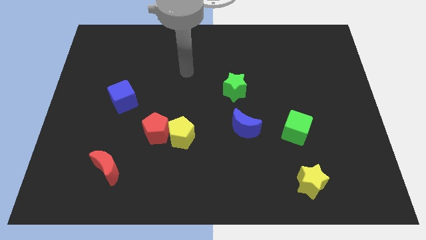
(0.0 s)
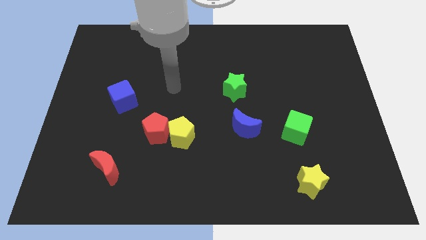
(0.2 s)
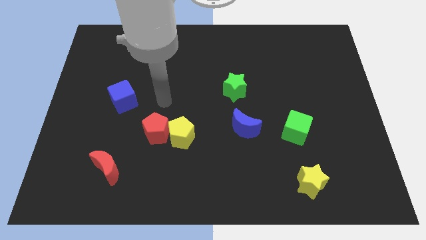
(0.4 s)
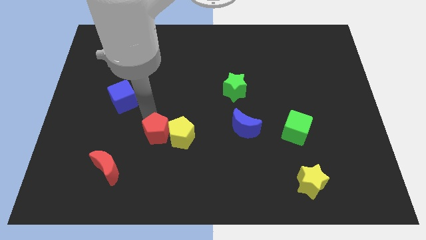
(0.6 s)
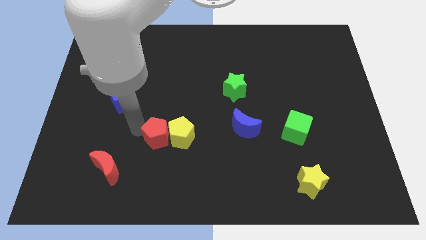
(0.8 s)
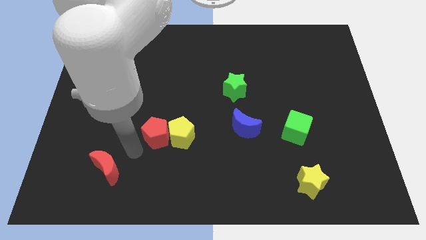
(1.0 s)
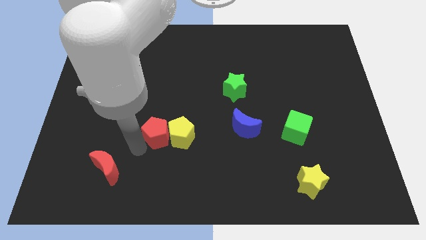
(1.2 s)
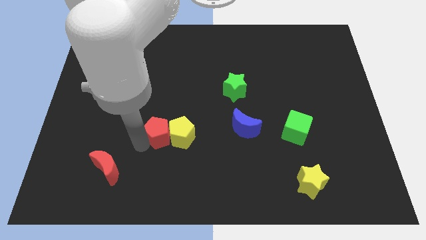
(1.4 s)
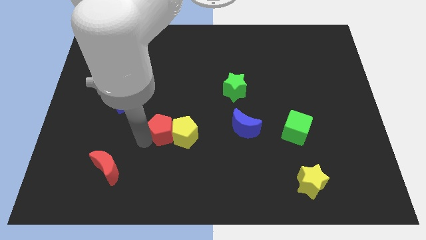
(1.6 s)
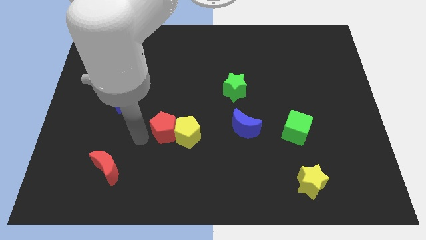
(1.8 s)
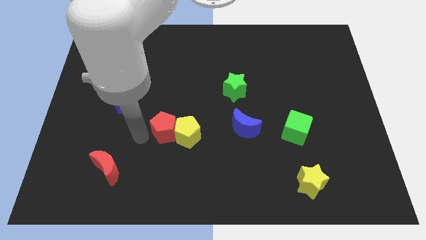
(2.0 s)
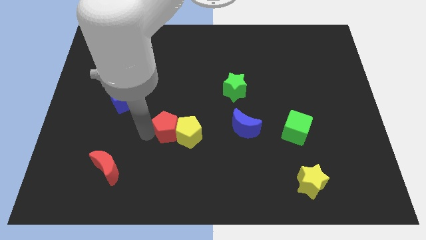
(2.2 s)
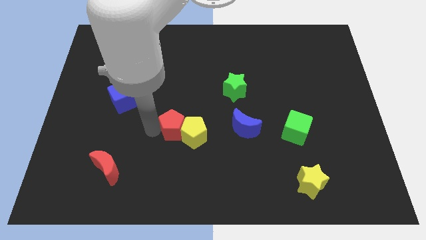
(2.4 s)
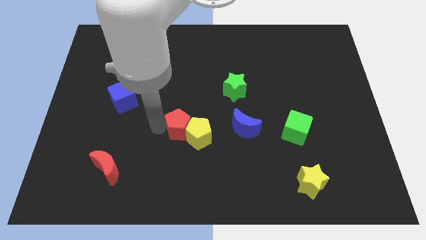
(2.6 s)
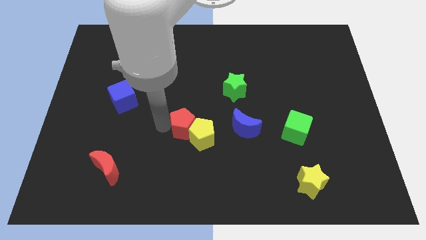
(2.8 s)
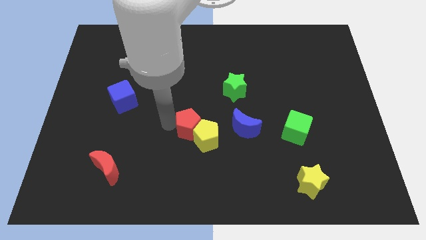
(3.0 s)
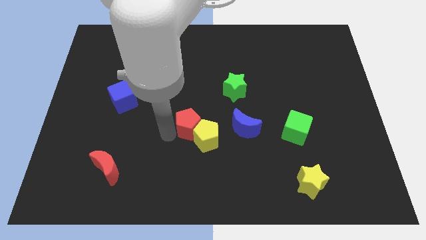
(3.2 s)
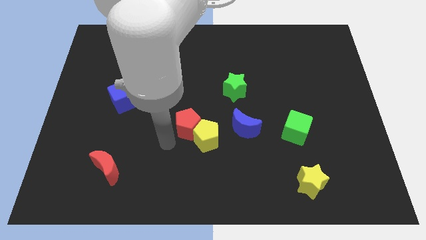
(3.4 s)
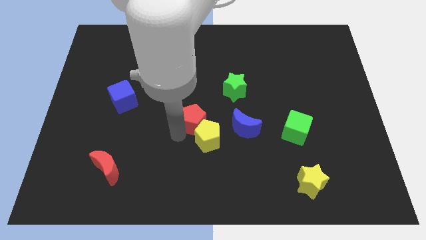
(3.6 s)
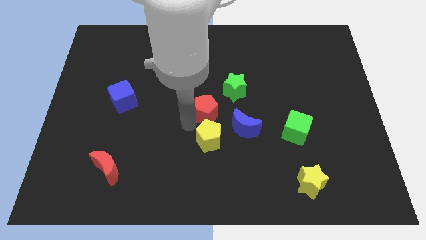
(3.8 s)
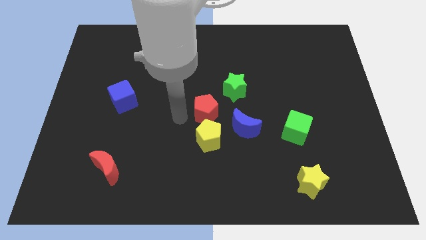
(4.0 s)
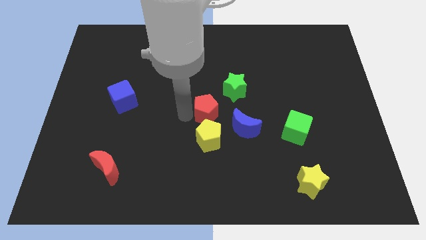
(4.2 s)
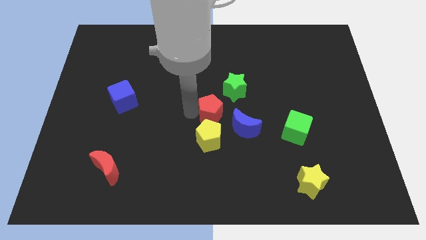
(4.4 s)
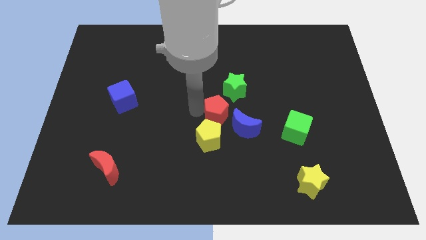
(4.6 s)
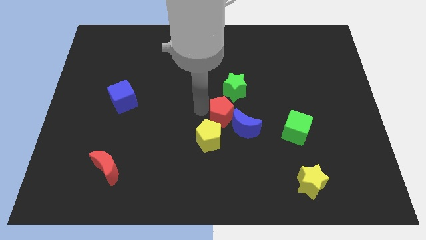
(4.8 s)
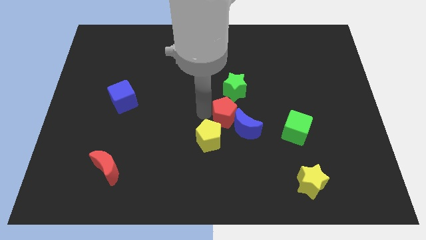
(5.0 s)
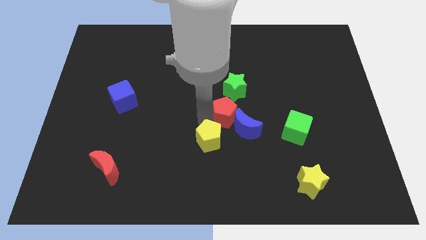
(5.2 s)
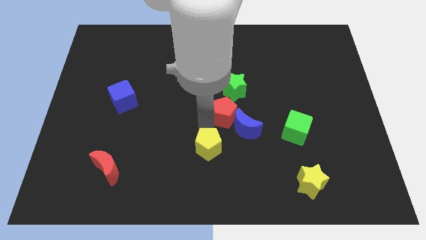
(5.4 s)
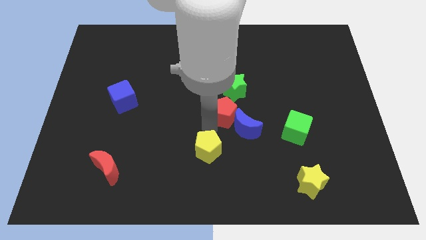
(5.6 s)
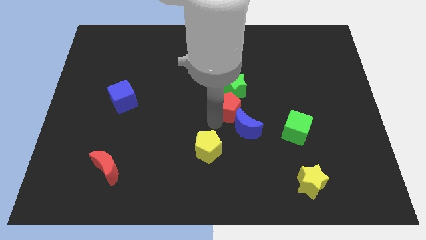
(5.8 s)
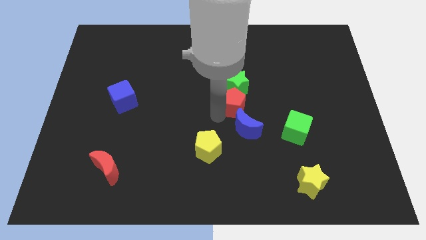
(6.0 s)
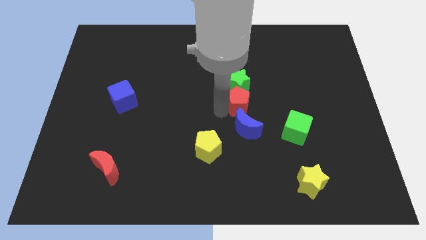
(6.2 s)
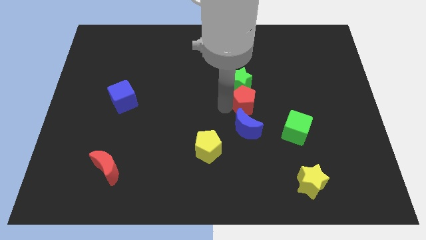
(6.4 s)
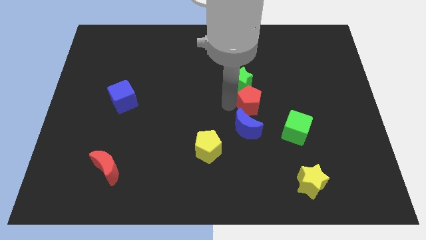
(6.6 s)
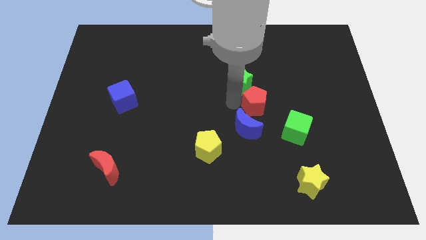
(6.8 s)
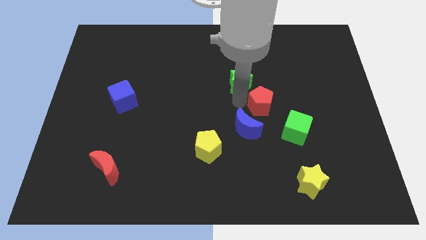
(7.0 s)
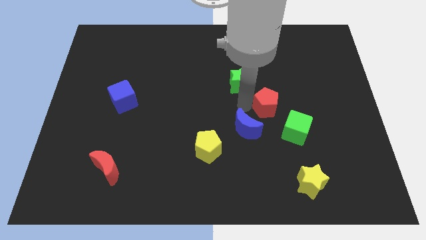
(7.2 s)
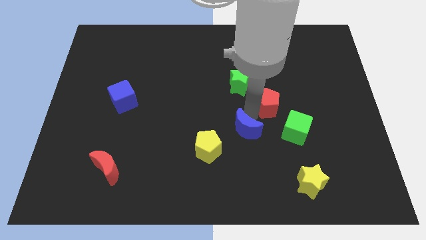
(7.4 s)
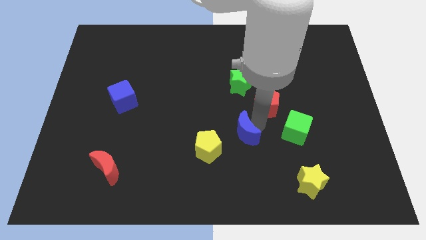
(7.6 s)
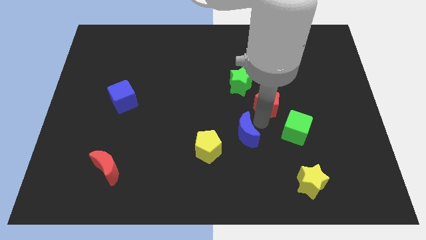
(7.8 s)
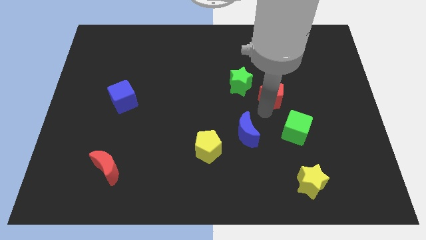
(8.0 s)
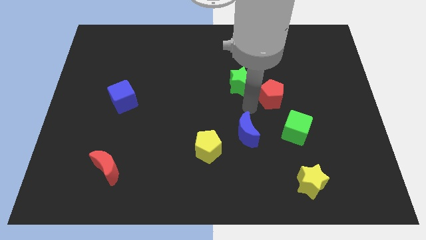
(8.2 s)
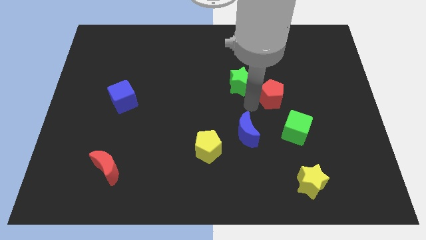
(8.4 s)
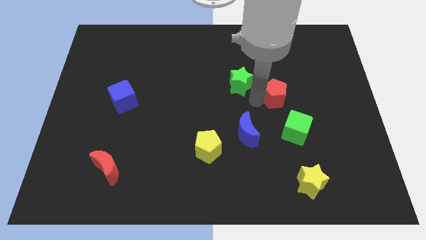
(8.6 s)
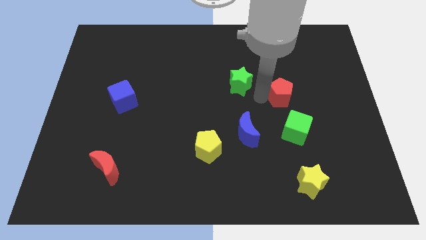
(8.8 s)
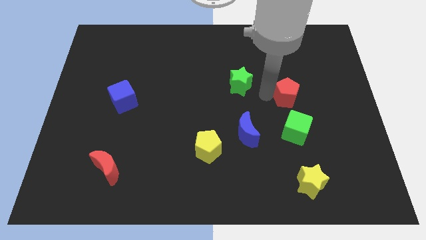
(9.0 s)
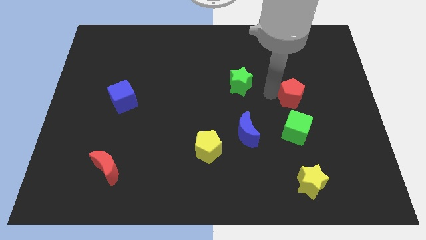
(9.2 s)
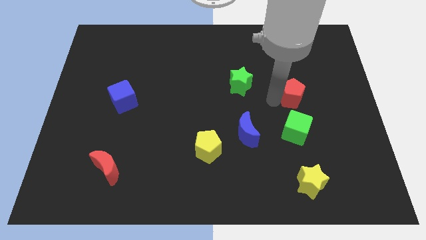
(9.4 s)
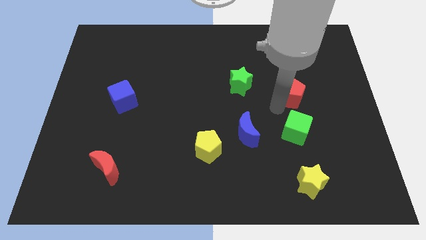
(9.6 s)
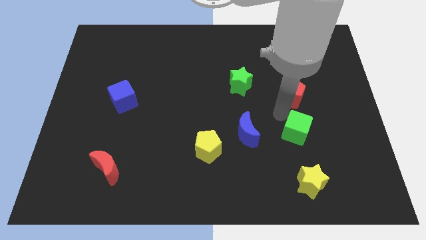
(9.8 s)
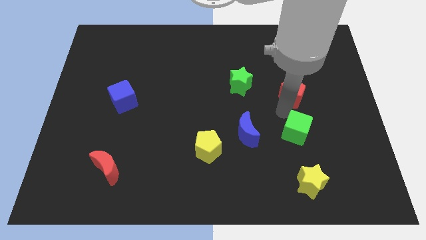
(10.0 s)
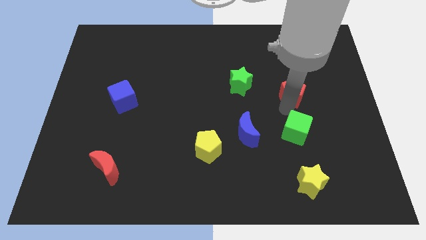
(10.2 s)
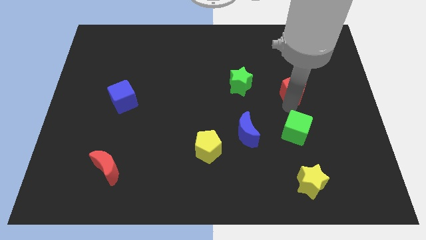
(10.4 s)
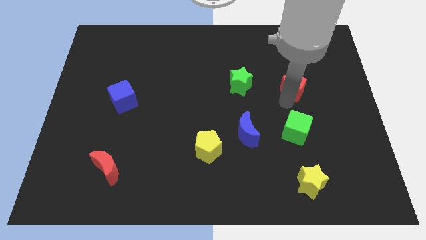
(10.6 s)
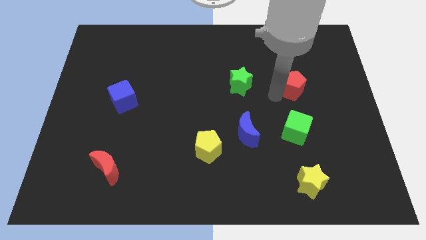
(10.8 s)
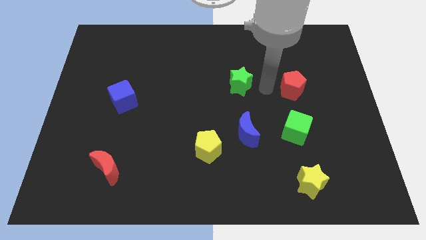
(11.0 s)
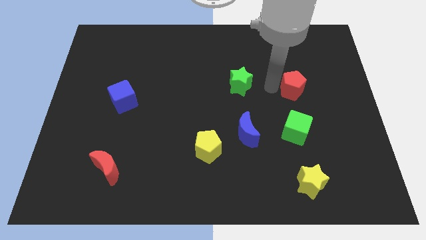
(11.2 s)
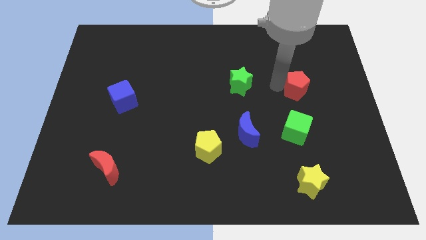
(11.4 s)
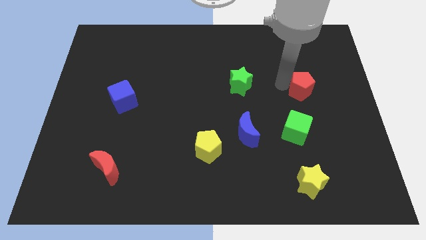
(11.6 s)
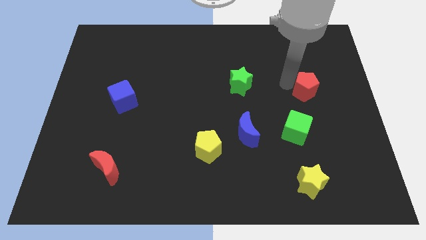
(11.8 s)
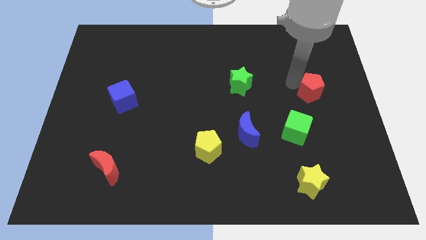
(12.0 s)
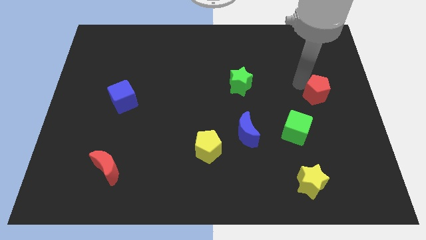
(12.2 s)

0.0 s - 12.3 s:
move the red pentagon to the center right
